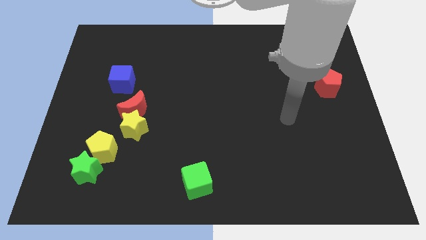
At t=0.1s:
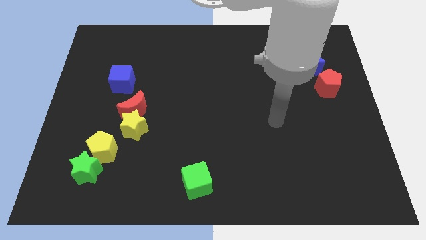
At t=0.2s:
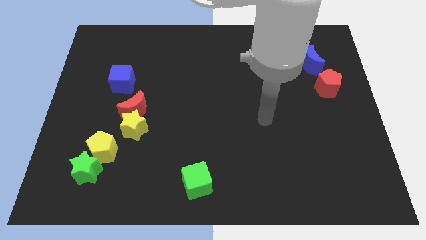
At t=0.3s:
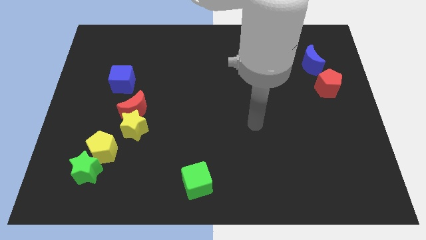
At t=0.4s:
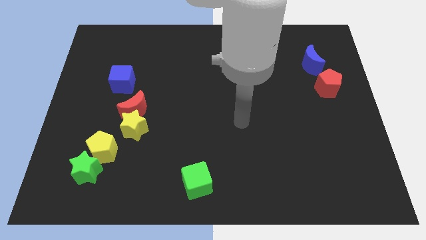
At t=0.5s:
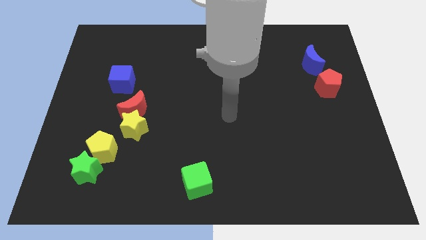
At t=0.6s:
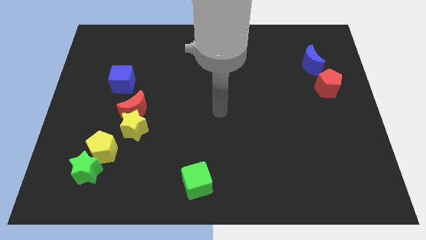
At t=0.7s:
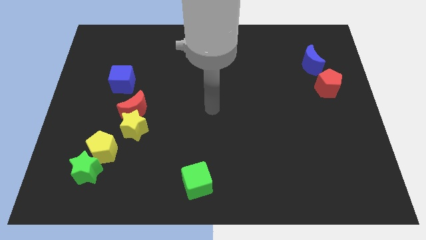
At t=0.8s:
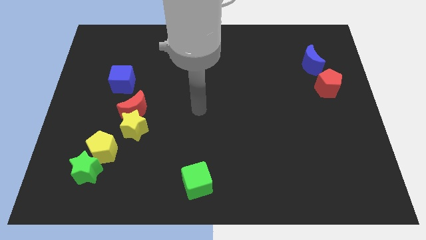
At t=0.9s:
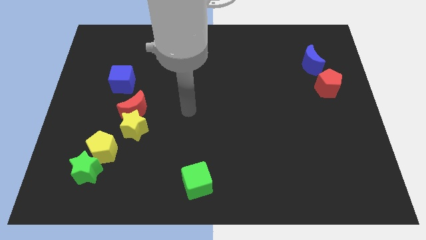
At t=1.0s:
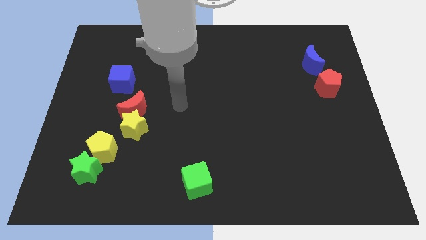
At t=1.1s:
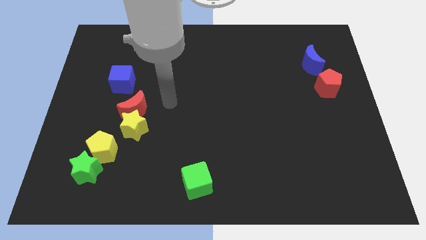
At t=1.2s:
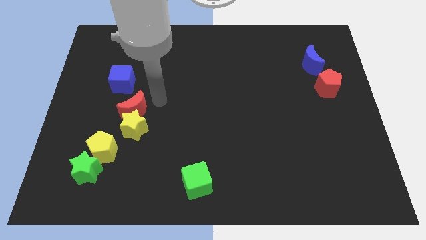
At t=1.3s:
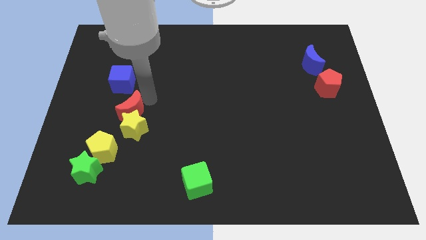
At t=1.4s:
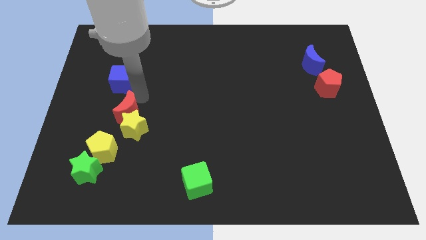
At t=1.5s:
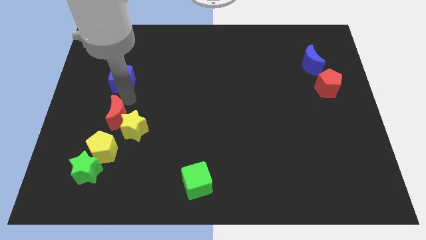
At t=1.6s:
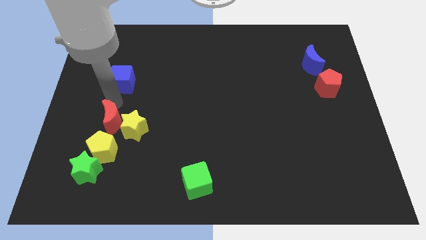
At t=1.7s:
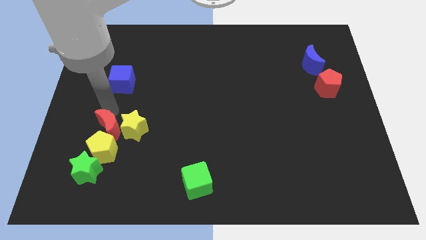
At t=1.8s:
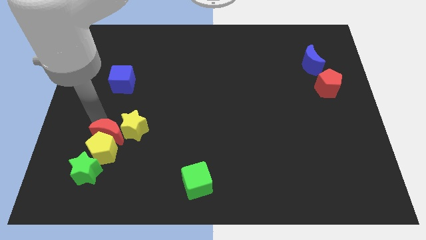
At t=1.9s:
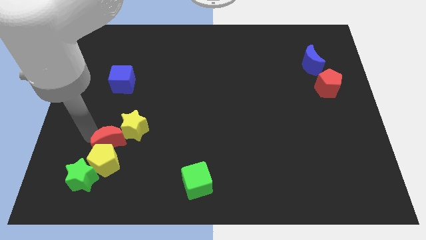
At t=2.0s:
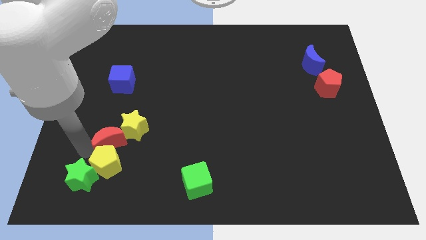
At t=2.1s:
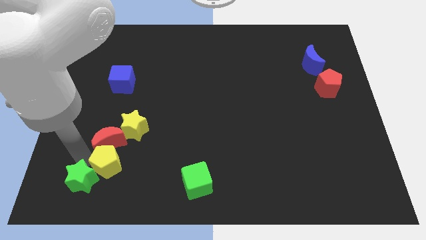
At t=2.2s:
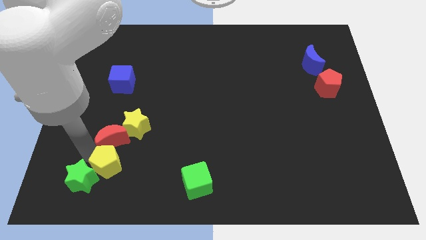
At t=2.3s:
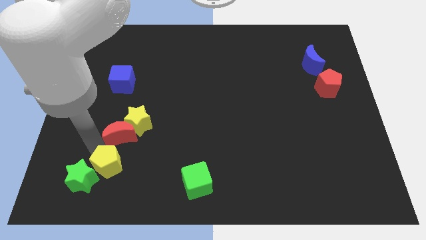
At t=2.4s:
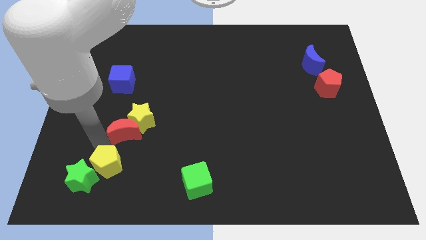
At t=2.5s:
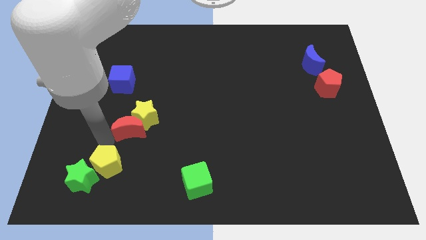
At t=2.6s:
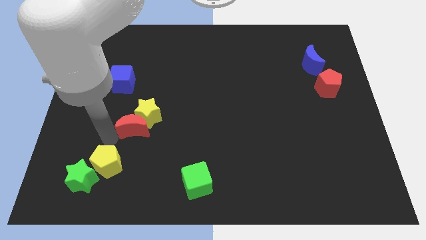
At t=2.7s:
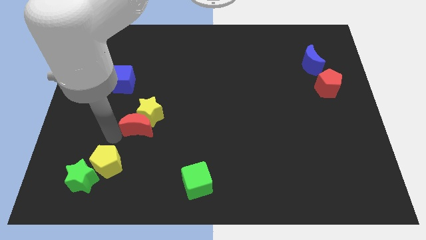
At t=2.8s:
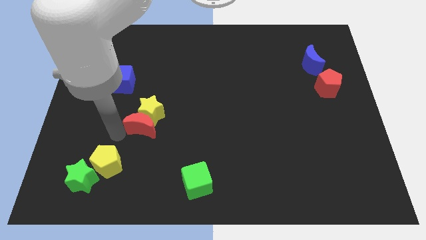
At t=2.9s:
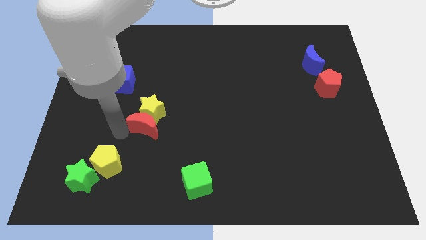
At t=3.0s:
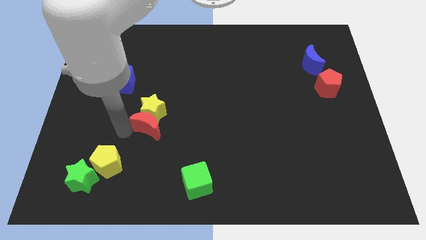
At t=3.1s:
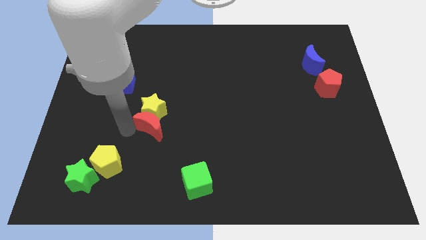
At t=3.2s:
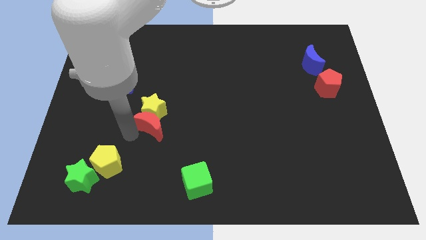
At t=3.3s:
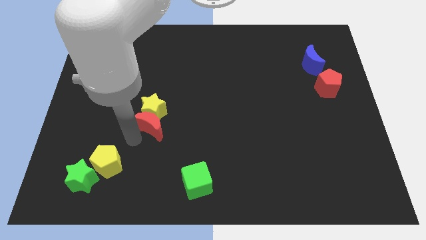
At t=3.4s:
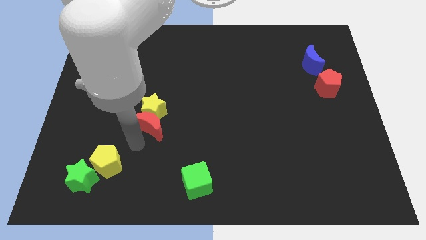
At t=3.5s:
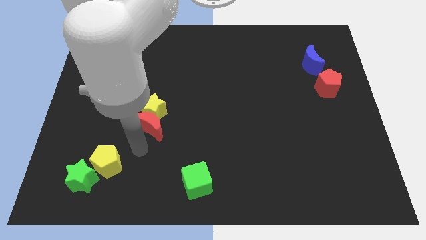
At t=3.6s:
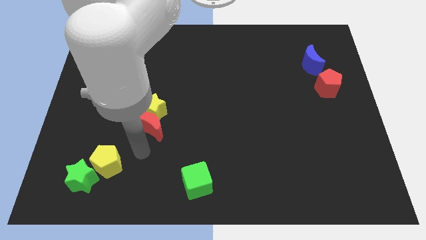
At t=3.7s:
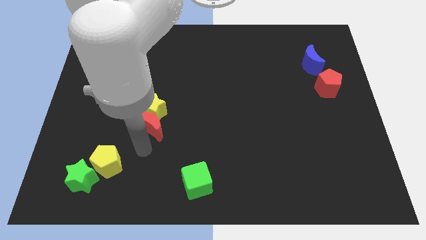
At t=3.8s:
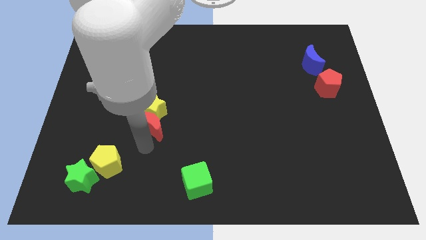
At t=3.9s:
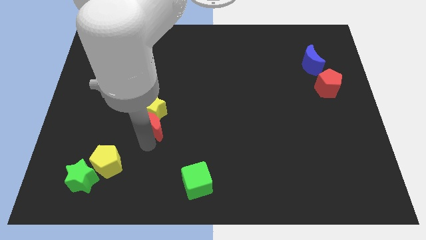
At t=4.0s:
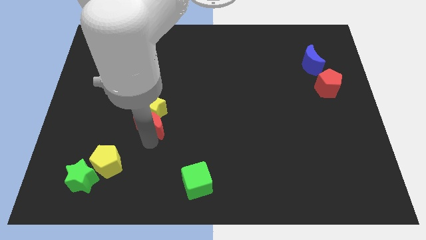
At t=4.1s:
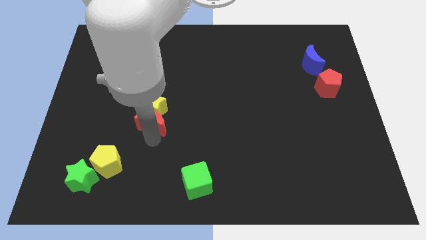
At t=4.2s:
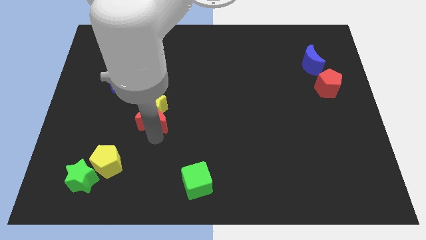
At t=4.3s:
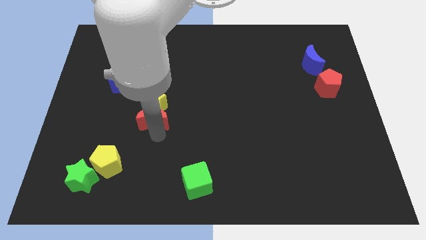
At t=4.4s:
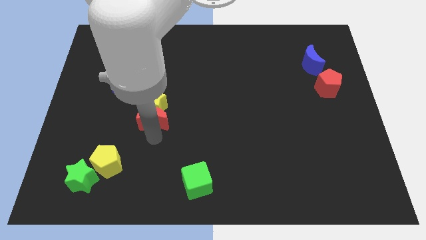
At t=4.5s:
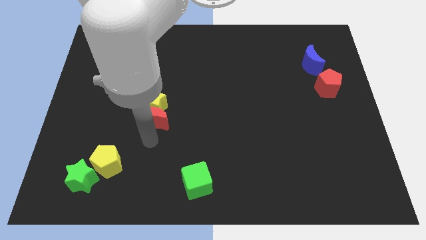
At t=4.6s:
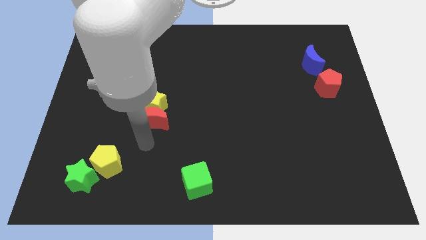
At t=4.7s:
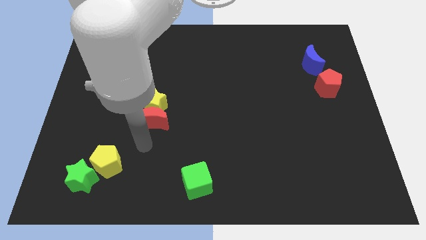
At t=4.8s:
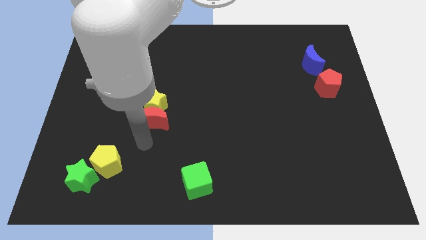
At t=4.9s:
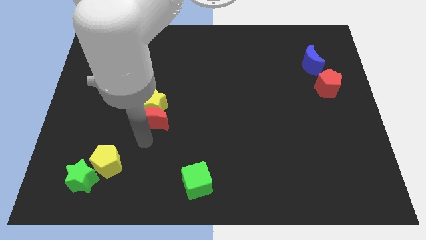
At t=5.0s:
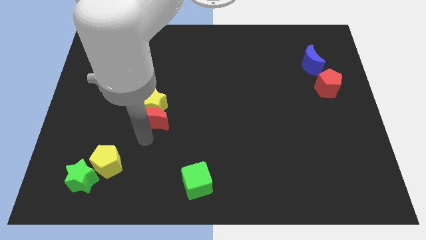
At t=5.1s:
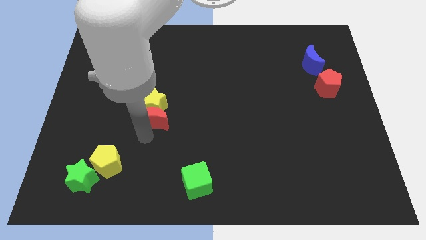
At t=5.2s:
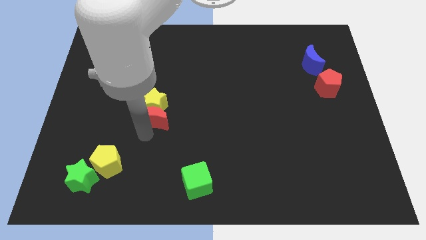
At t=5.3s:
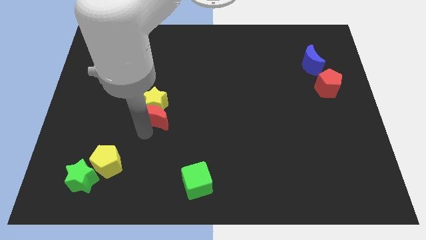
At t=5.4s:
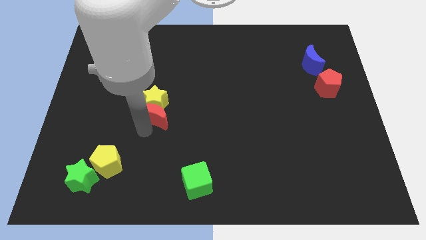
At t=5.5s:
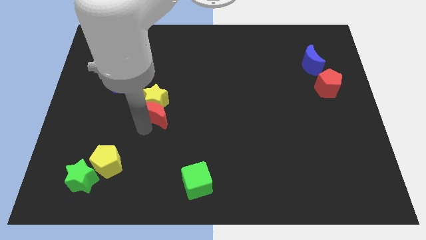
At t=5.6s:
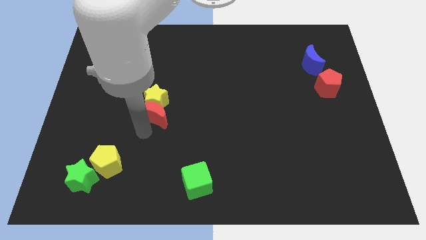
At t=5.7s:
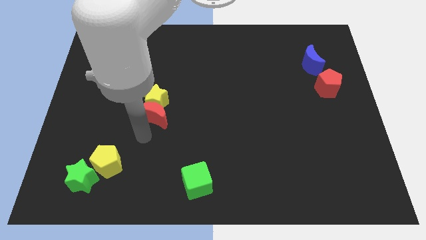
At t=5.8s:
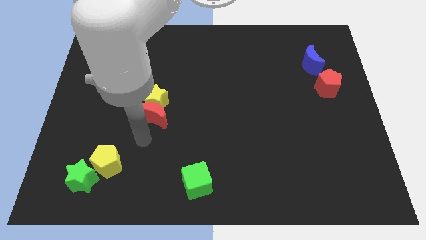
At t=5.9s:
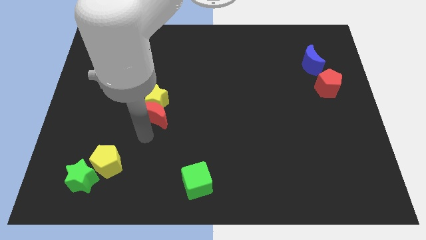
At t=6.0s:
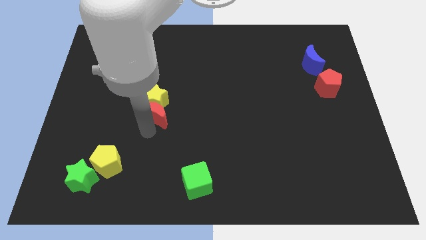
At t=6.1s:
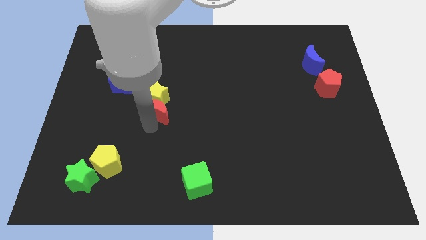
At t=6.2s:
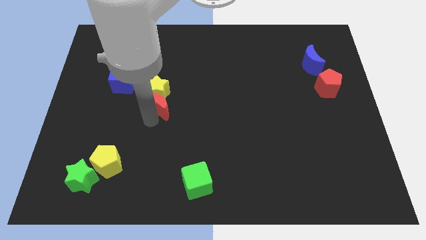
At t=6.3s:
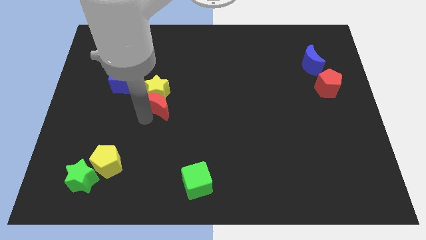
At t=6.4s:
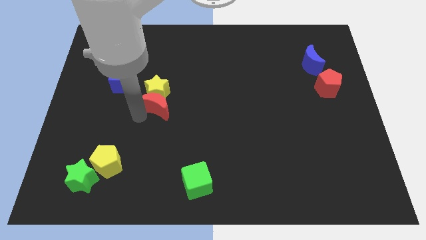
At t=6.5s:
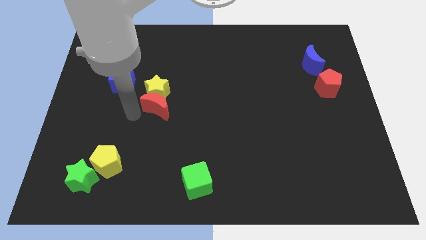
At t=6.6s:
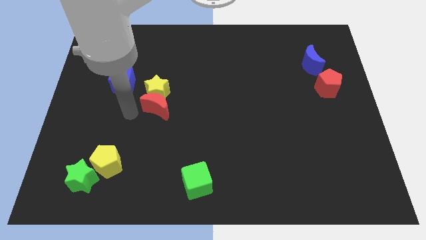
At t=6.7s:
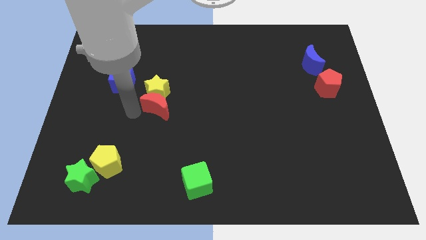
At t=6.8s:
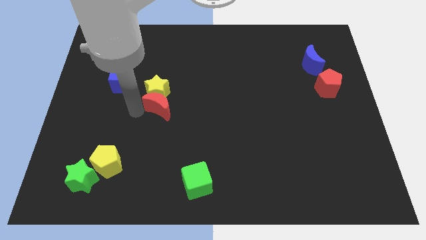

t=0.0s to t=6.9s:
put the red moon to the middle of the board
